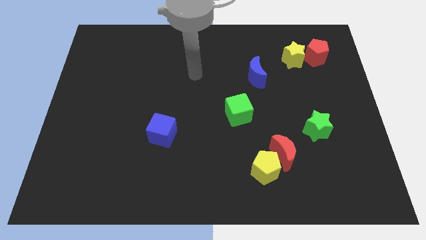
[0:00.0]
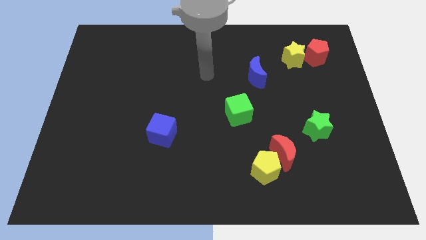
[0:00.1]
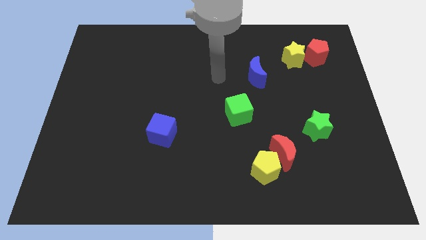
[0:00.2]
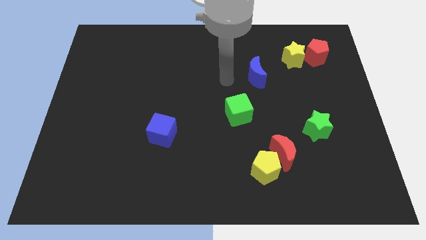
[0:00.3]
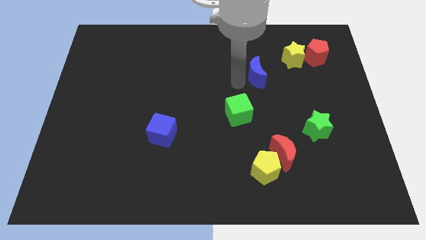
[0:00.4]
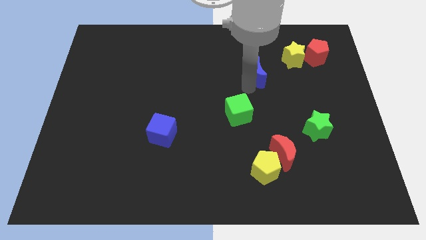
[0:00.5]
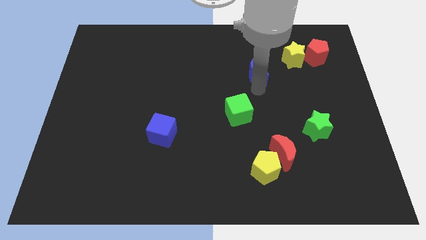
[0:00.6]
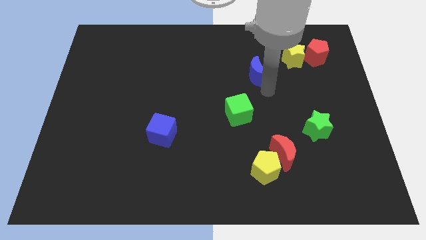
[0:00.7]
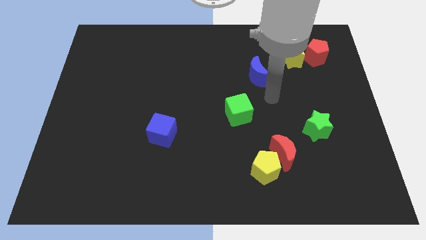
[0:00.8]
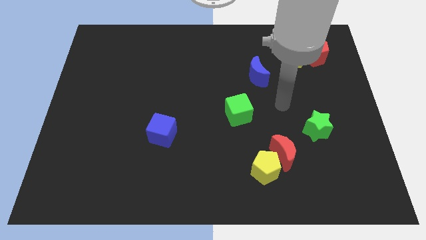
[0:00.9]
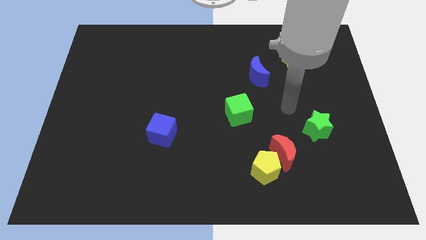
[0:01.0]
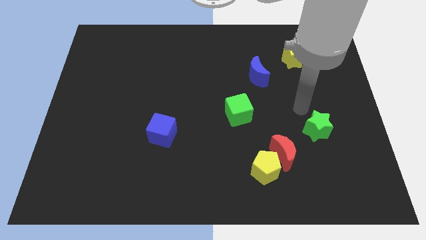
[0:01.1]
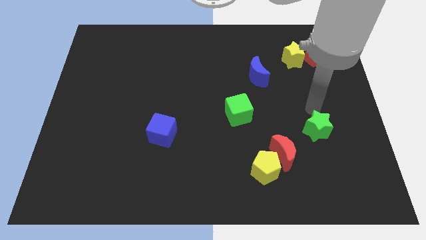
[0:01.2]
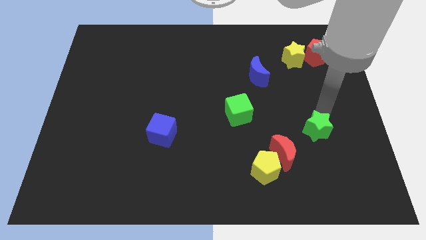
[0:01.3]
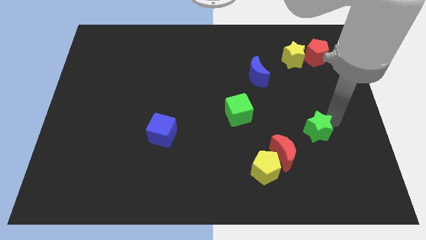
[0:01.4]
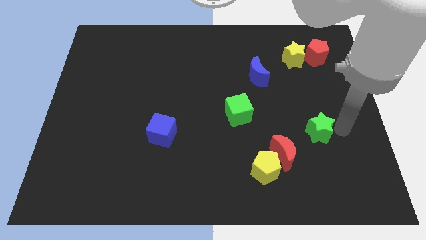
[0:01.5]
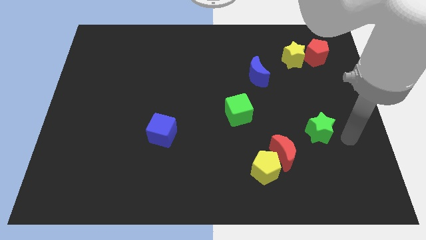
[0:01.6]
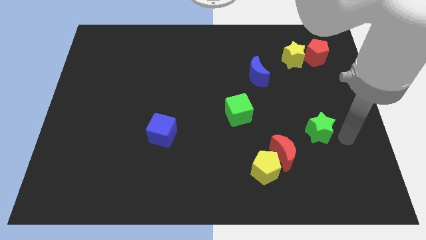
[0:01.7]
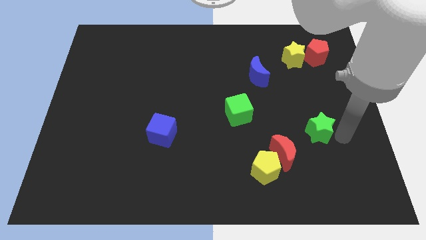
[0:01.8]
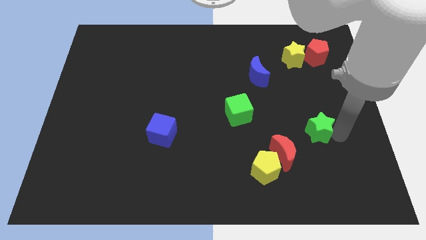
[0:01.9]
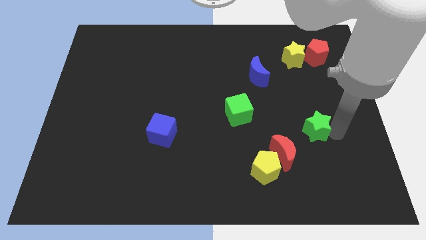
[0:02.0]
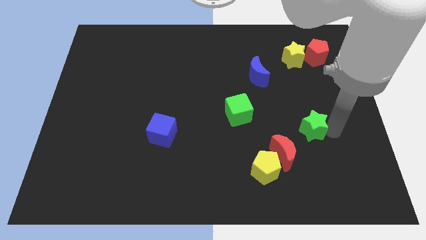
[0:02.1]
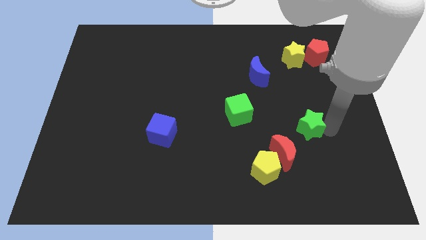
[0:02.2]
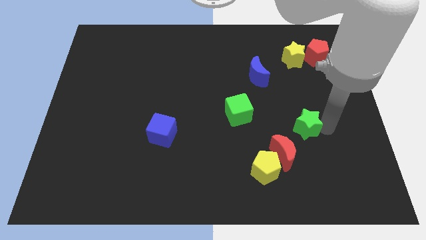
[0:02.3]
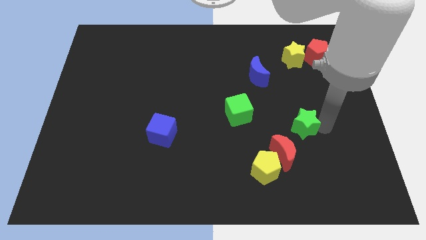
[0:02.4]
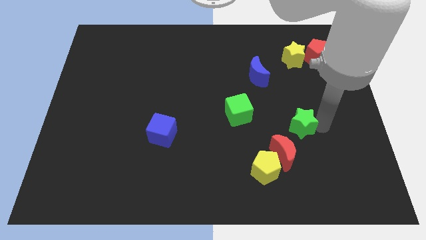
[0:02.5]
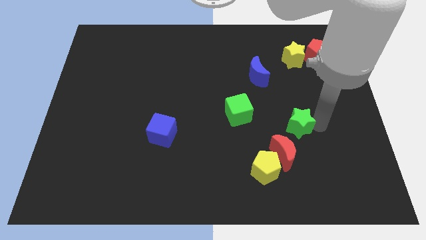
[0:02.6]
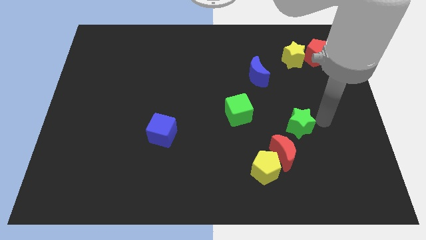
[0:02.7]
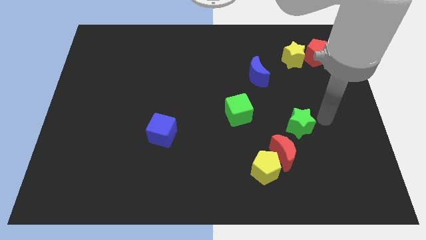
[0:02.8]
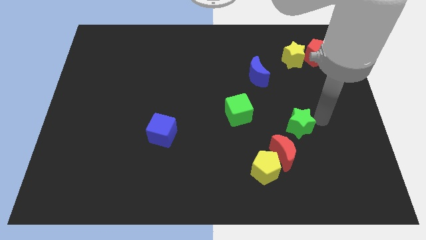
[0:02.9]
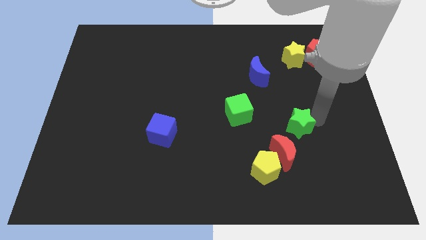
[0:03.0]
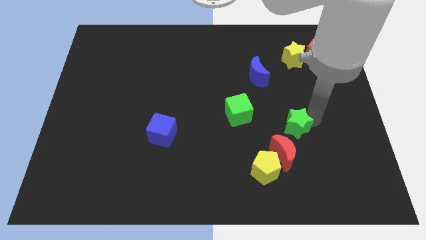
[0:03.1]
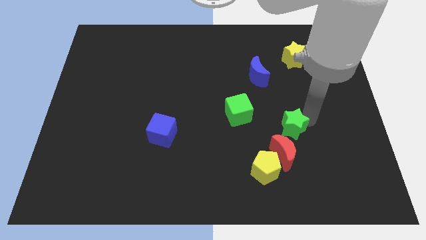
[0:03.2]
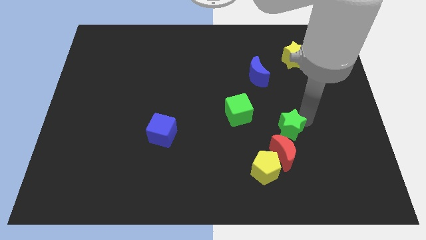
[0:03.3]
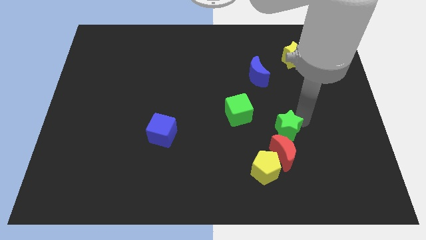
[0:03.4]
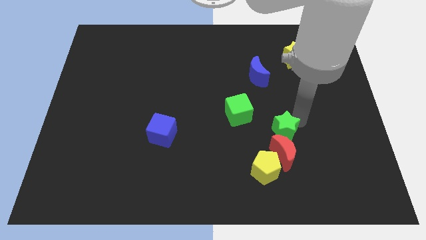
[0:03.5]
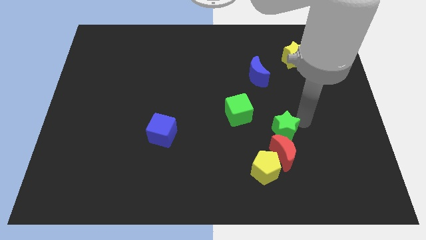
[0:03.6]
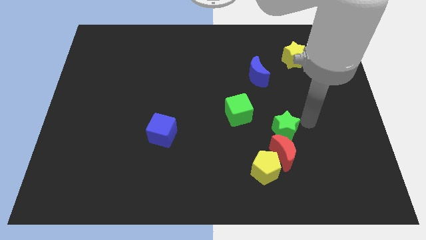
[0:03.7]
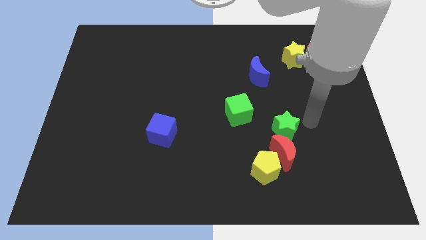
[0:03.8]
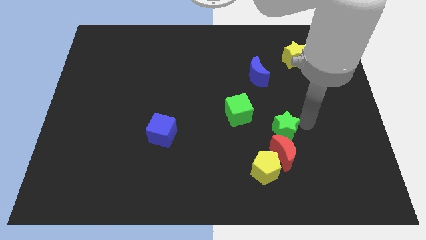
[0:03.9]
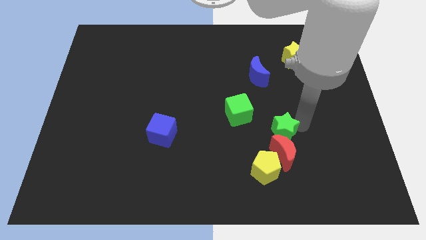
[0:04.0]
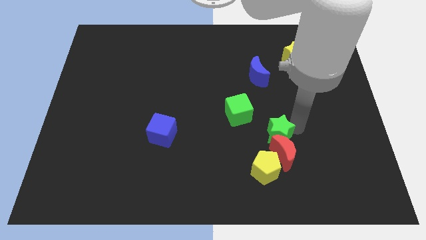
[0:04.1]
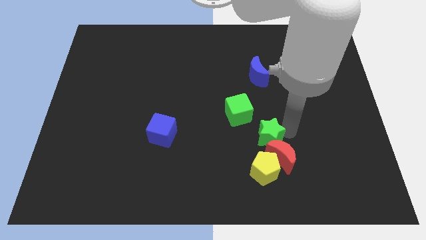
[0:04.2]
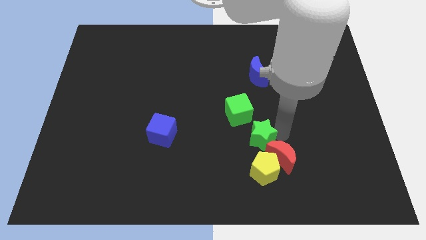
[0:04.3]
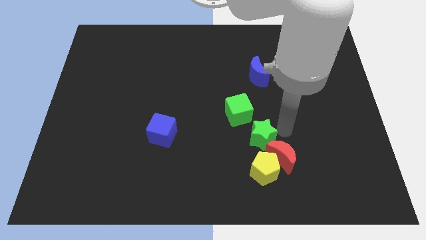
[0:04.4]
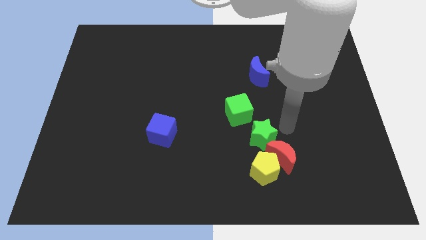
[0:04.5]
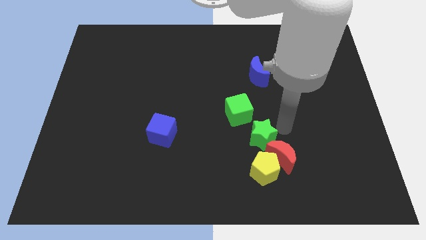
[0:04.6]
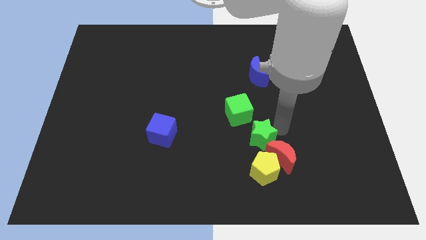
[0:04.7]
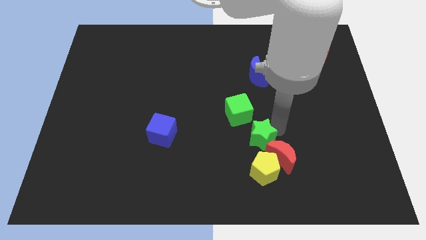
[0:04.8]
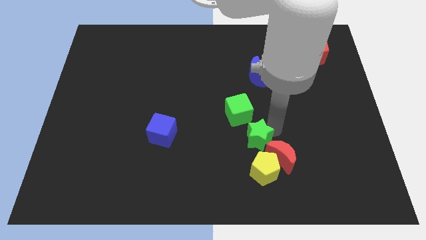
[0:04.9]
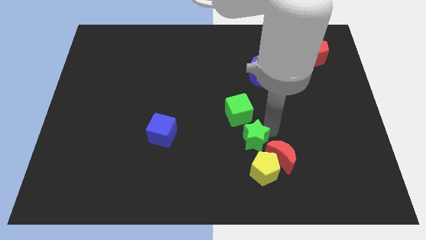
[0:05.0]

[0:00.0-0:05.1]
slide the green star to the top left of the yellow pentagon

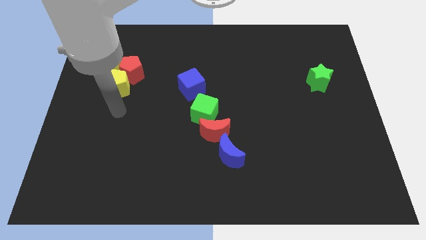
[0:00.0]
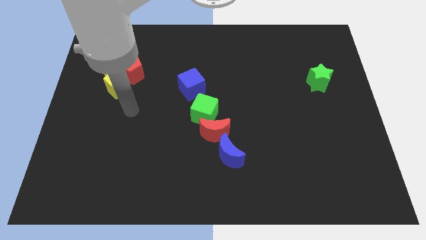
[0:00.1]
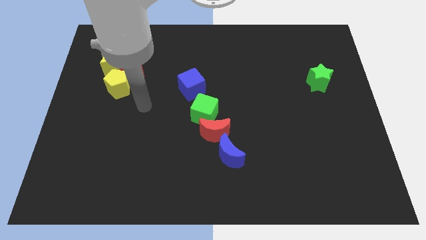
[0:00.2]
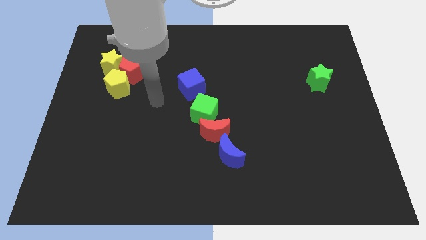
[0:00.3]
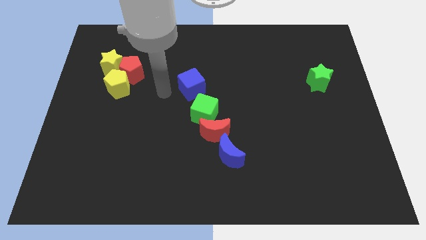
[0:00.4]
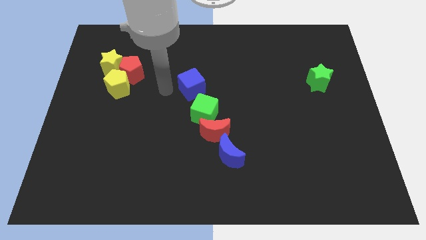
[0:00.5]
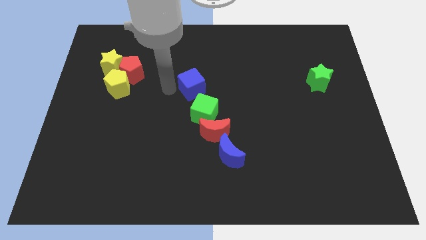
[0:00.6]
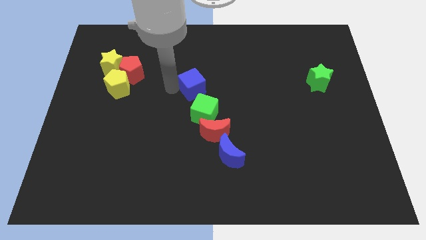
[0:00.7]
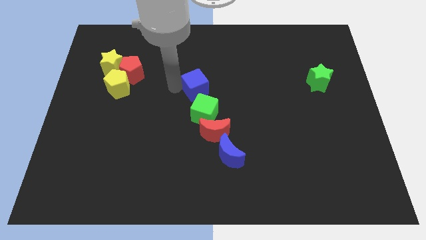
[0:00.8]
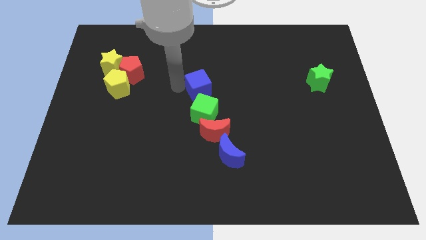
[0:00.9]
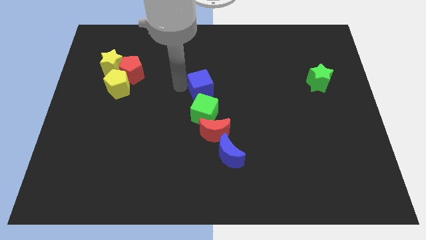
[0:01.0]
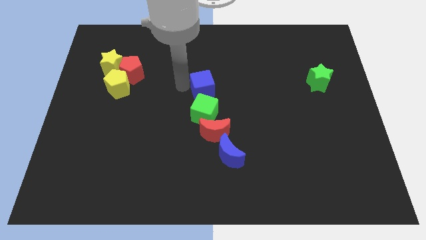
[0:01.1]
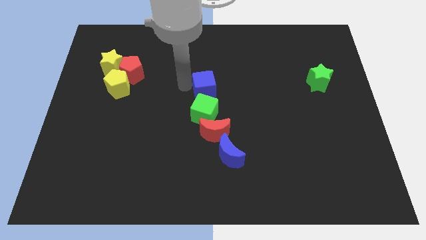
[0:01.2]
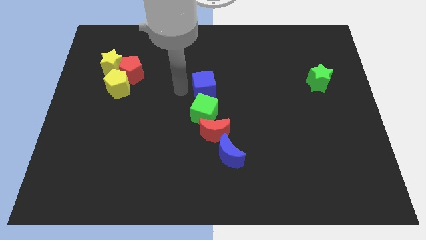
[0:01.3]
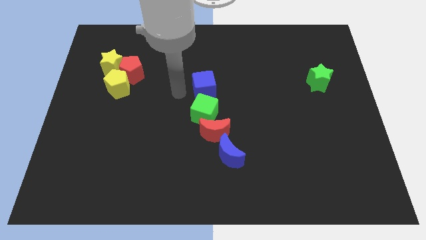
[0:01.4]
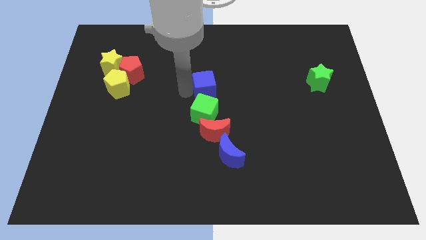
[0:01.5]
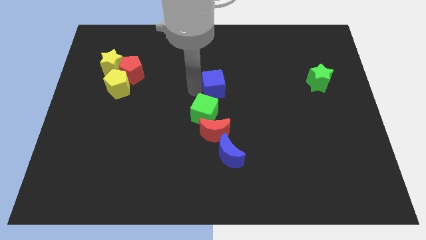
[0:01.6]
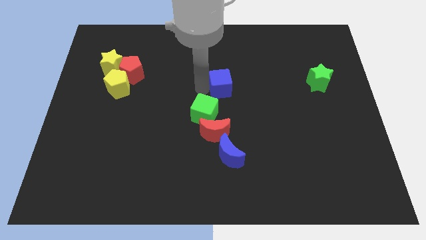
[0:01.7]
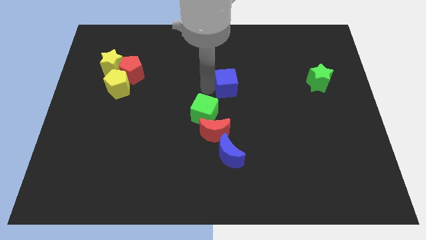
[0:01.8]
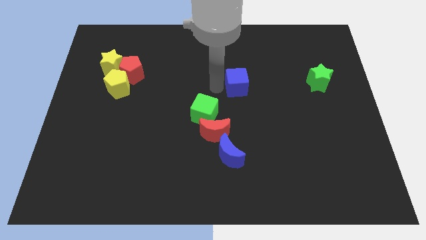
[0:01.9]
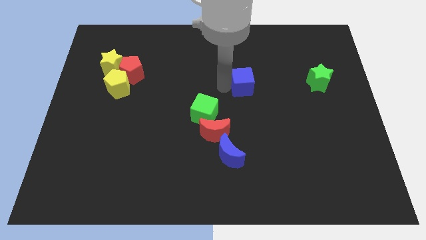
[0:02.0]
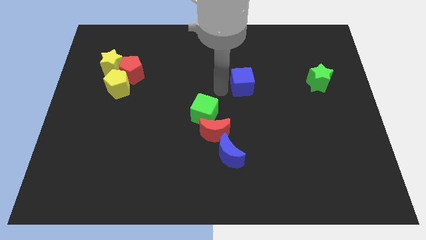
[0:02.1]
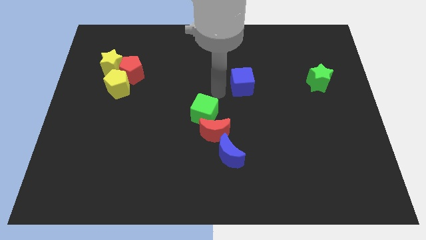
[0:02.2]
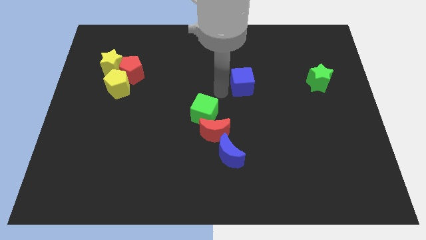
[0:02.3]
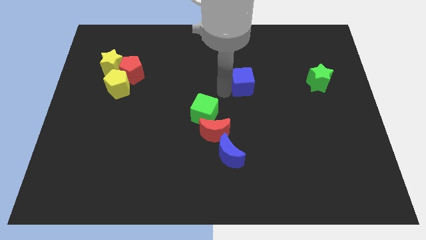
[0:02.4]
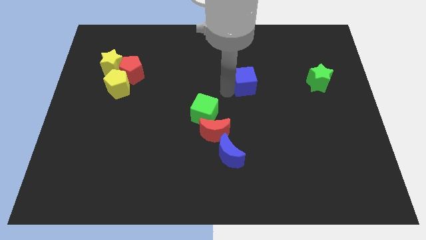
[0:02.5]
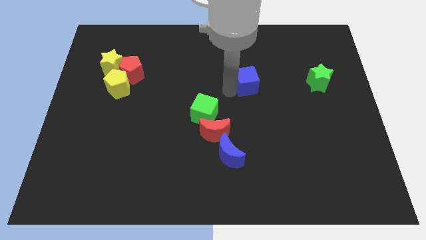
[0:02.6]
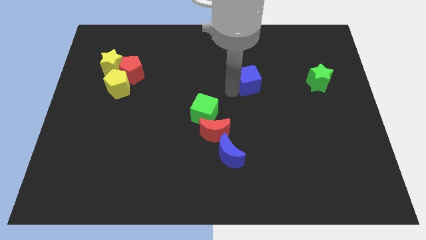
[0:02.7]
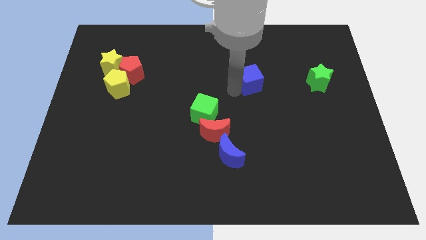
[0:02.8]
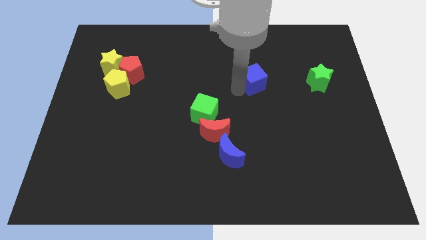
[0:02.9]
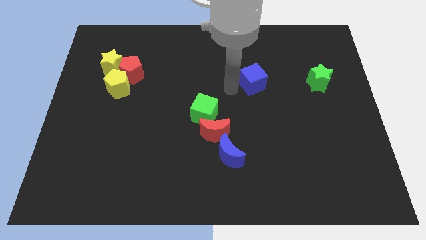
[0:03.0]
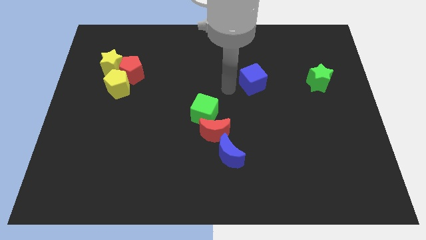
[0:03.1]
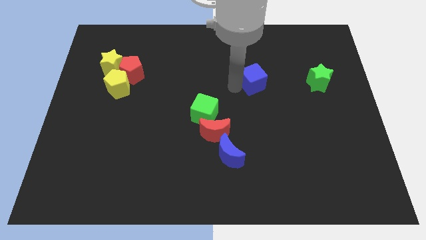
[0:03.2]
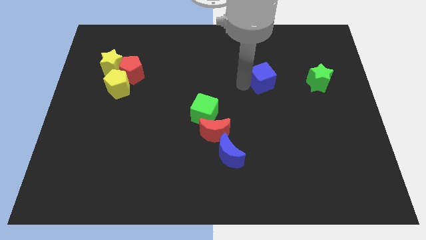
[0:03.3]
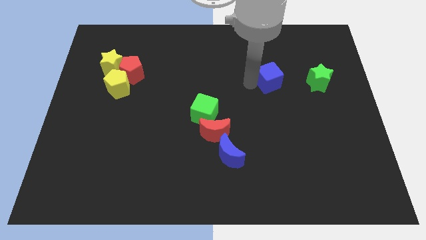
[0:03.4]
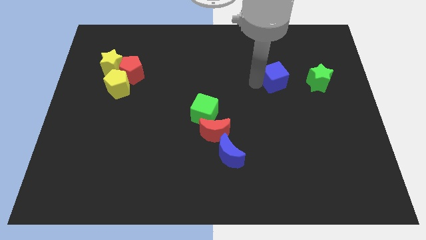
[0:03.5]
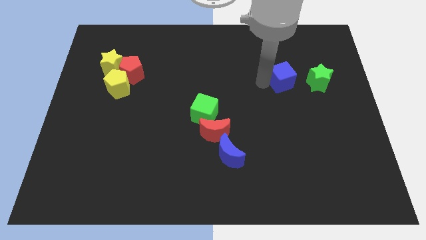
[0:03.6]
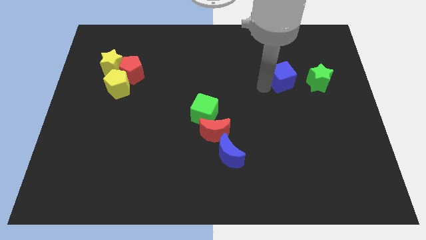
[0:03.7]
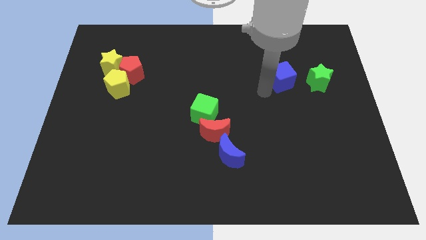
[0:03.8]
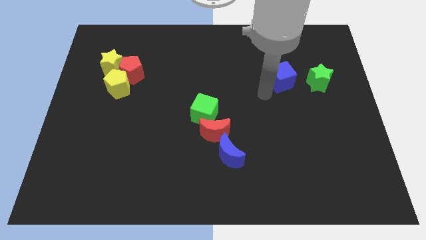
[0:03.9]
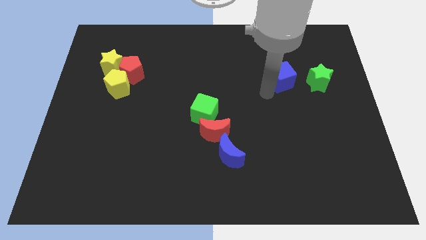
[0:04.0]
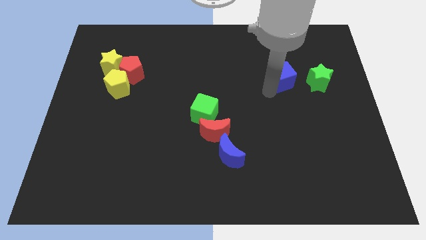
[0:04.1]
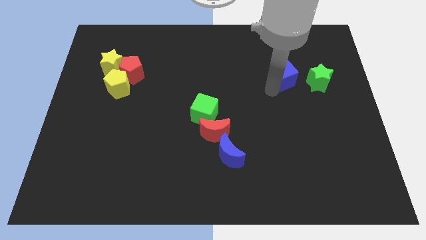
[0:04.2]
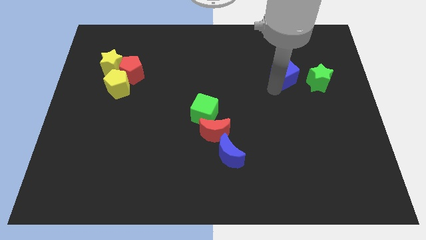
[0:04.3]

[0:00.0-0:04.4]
push the blue cube to the top left side of the green star
